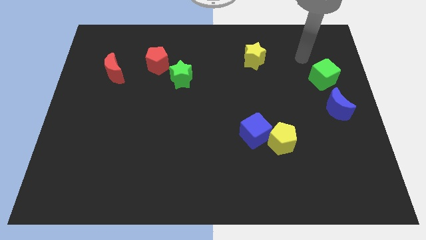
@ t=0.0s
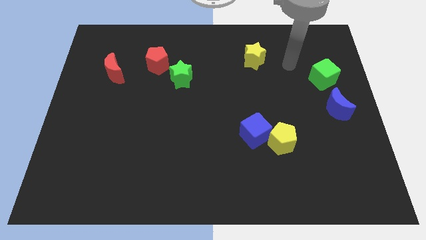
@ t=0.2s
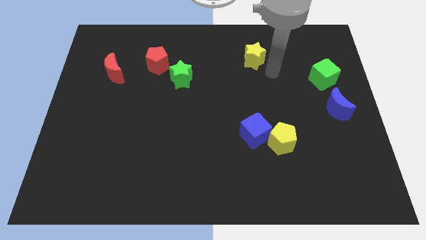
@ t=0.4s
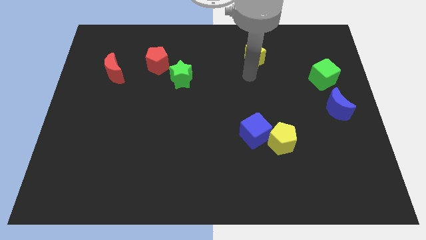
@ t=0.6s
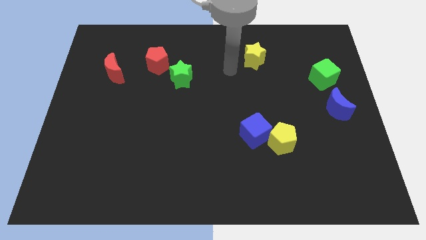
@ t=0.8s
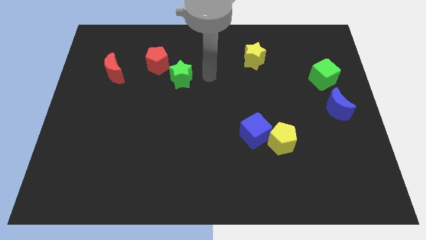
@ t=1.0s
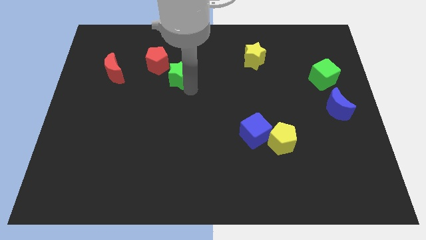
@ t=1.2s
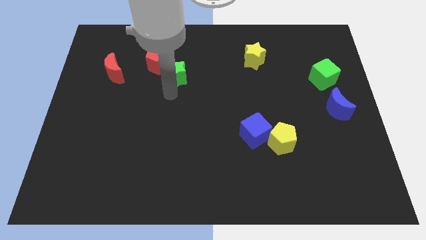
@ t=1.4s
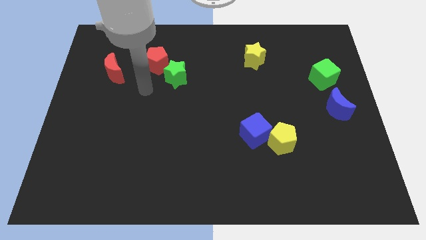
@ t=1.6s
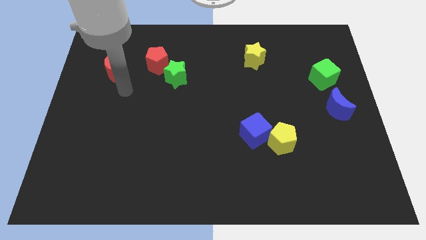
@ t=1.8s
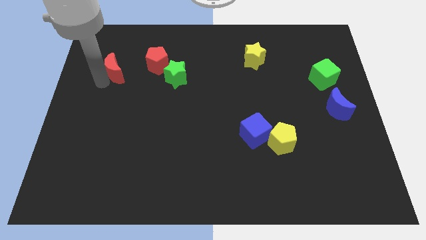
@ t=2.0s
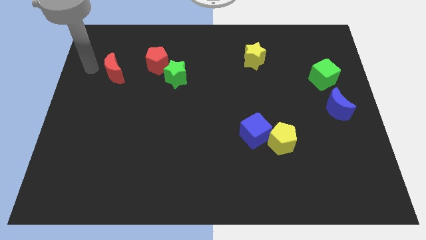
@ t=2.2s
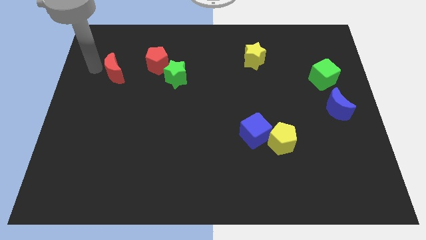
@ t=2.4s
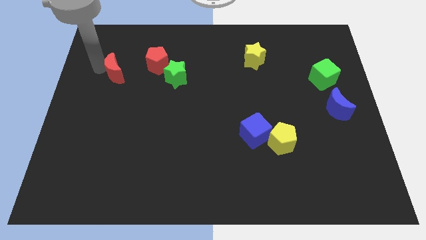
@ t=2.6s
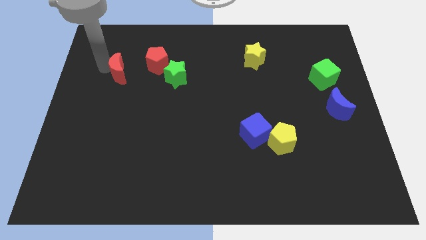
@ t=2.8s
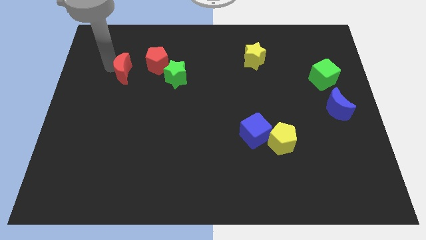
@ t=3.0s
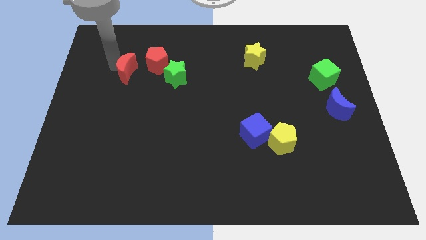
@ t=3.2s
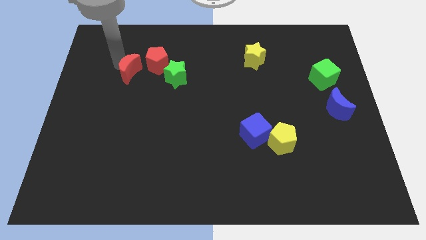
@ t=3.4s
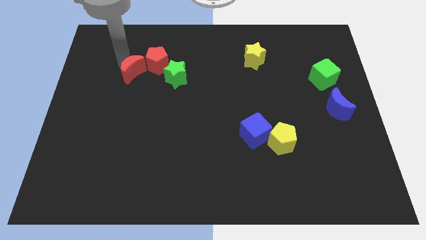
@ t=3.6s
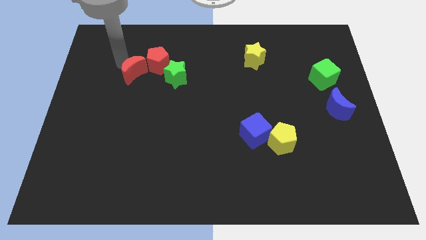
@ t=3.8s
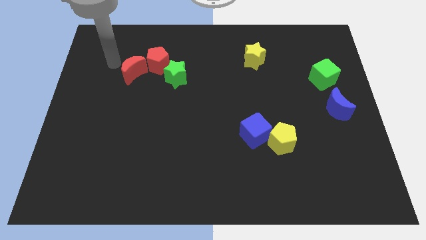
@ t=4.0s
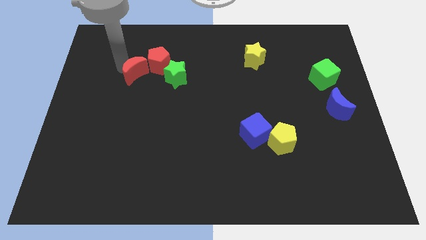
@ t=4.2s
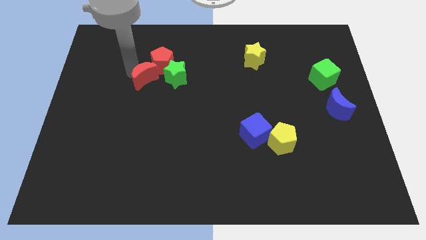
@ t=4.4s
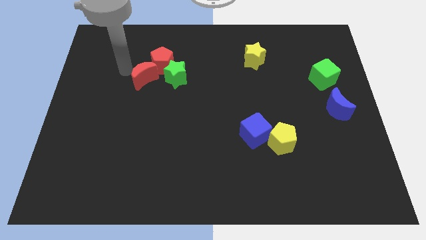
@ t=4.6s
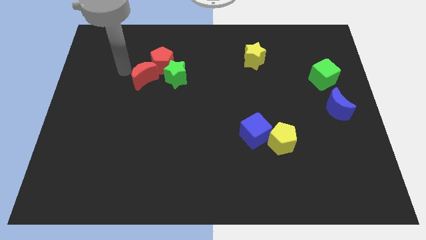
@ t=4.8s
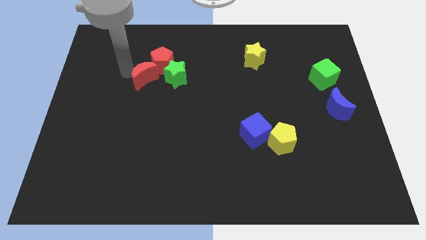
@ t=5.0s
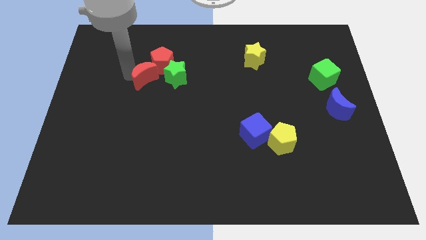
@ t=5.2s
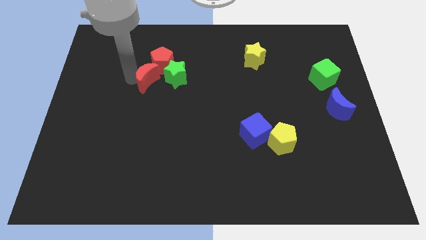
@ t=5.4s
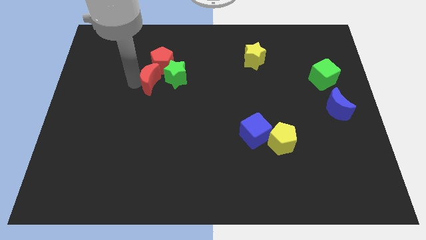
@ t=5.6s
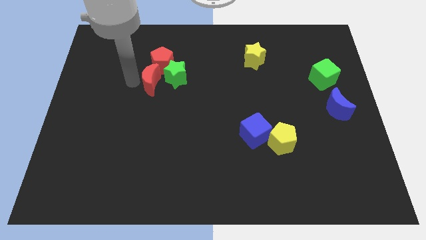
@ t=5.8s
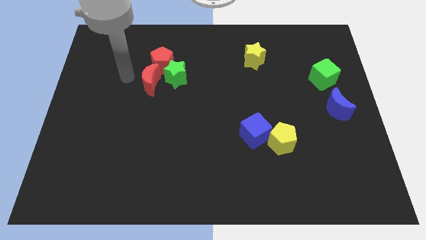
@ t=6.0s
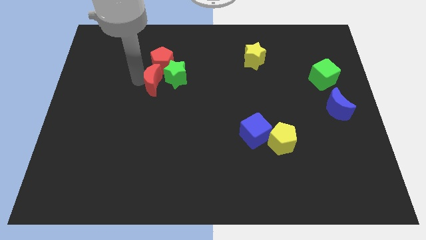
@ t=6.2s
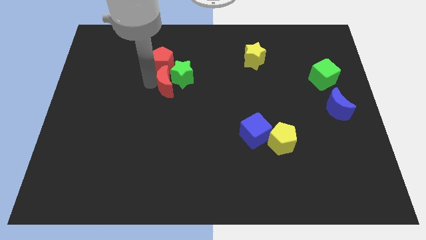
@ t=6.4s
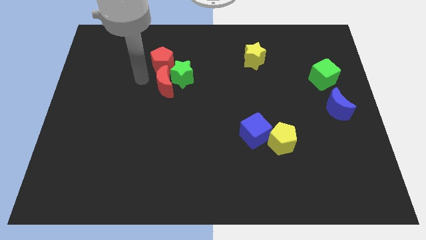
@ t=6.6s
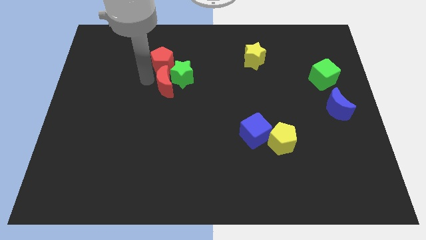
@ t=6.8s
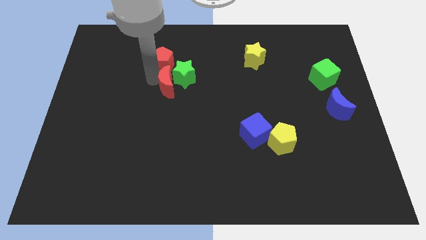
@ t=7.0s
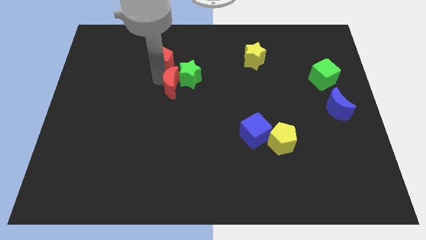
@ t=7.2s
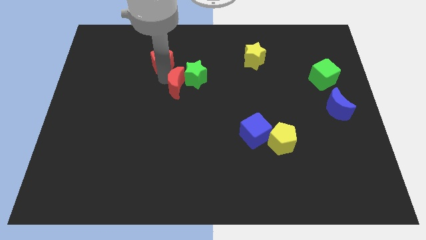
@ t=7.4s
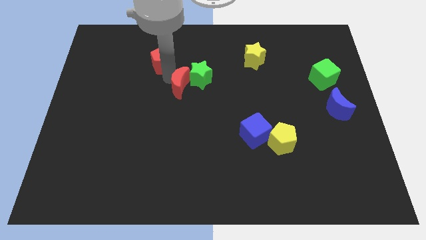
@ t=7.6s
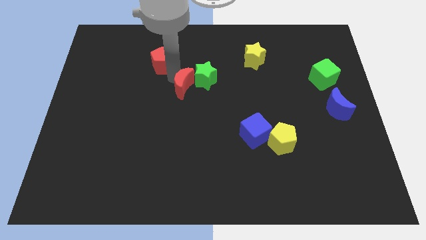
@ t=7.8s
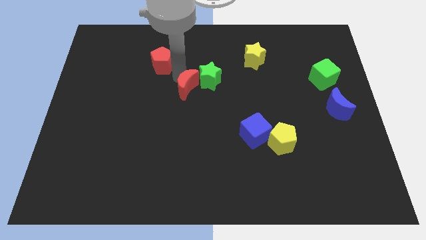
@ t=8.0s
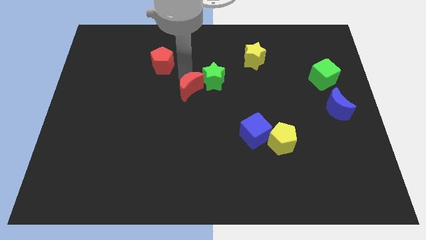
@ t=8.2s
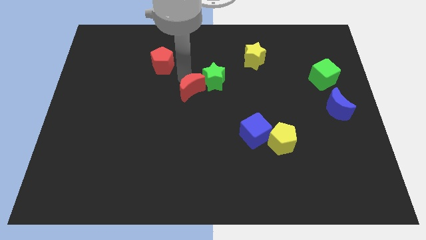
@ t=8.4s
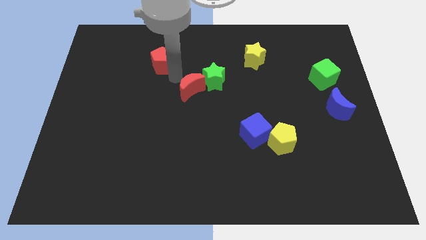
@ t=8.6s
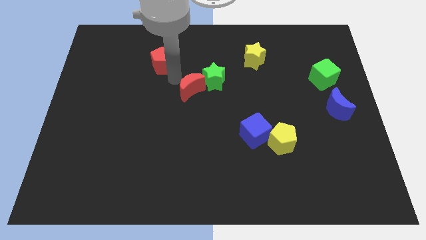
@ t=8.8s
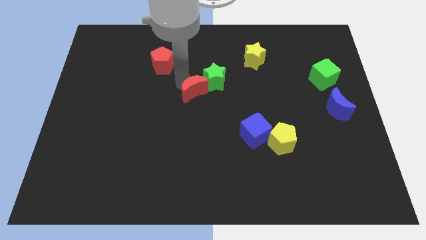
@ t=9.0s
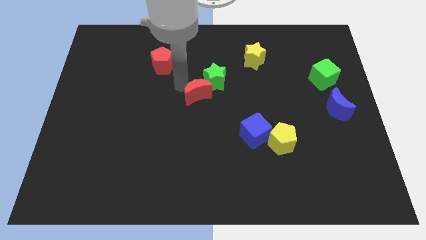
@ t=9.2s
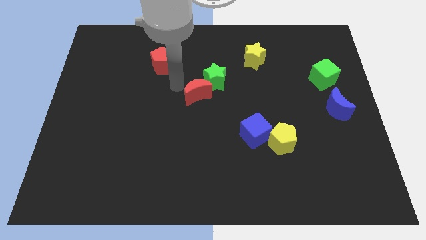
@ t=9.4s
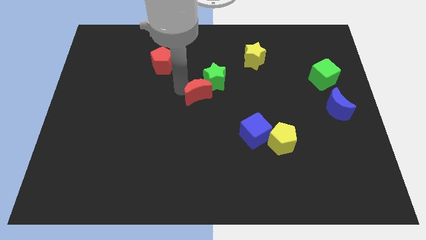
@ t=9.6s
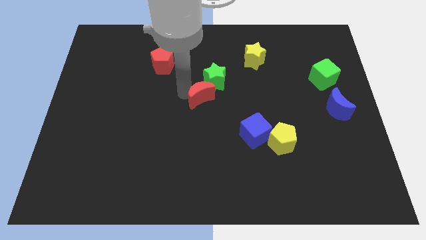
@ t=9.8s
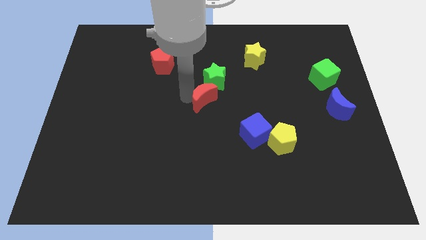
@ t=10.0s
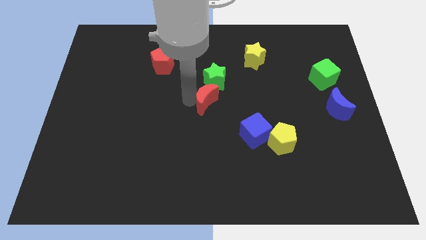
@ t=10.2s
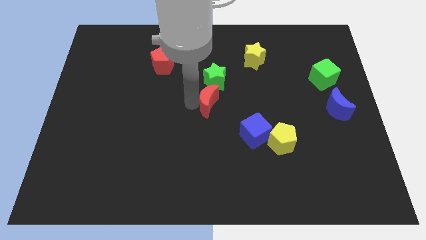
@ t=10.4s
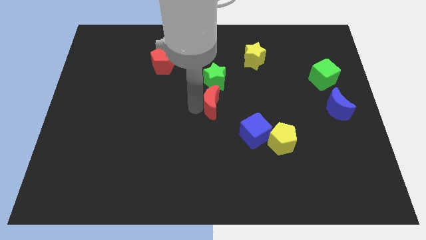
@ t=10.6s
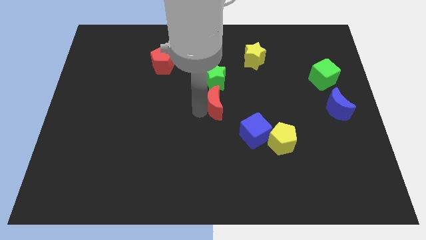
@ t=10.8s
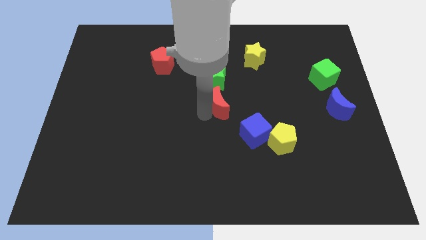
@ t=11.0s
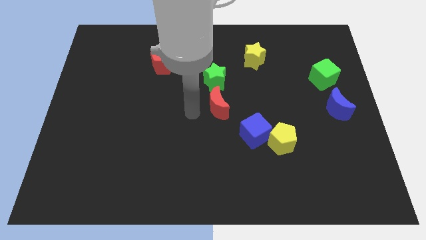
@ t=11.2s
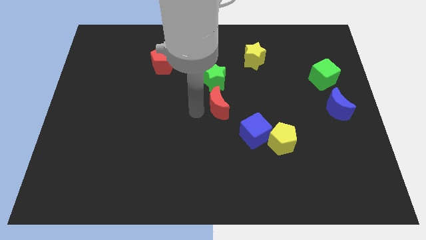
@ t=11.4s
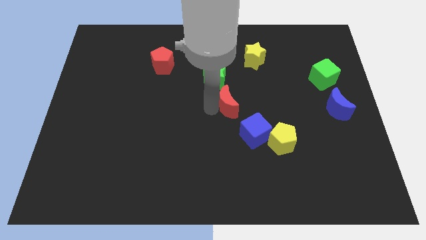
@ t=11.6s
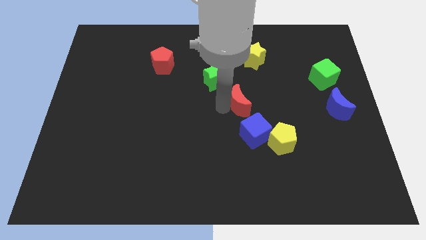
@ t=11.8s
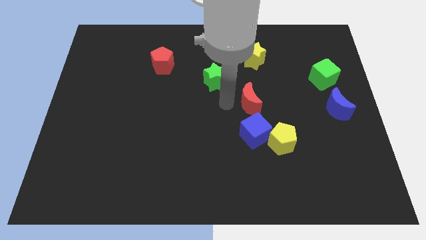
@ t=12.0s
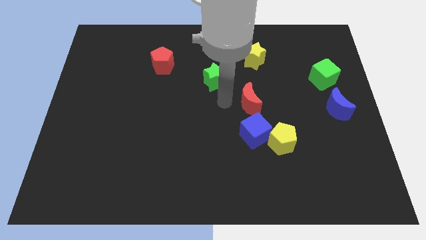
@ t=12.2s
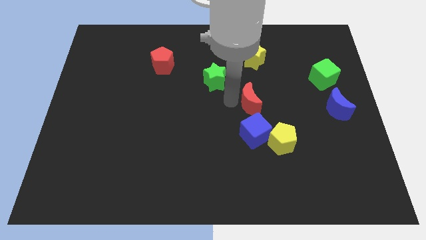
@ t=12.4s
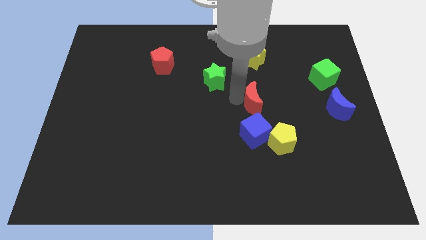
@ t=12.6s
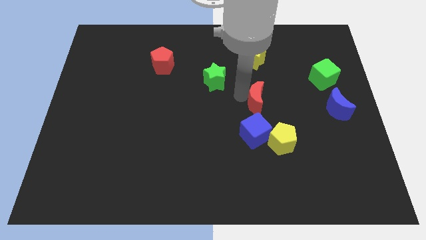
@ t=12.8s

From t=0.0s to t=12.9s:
put the red moon to the top side of the yellow pentagon
